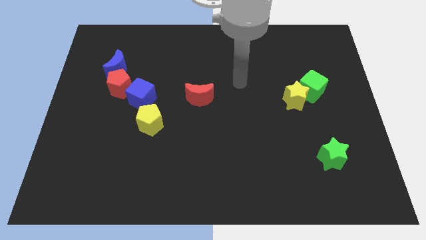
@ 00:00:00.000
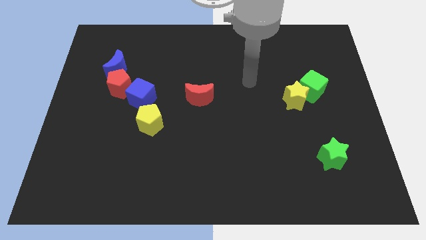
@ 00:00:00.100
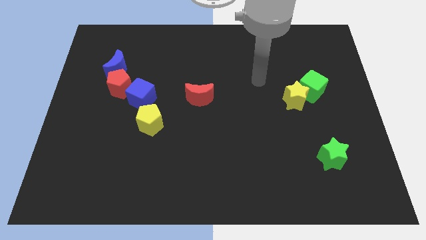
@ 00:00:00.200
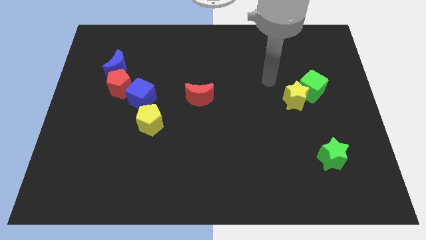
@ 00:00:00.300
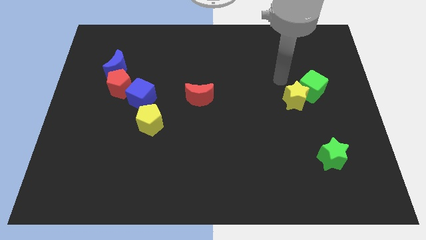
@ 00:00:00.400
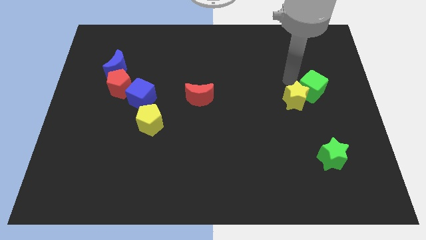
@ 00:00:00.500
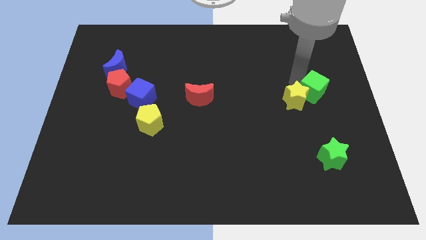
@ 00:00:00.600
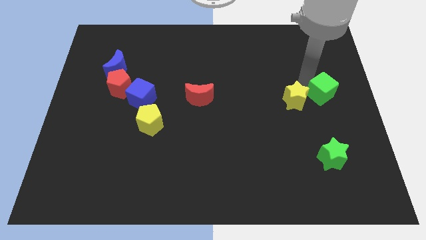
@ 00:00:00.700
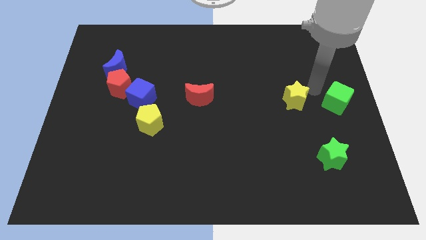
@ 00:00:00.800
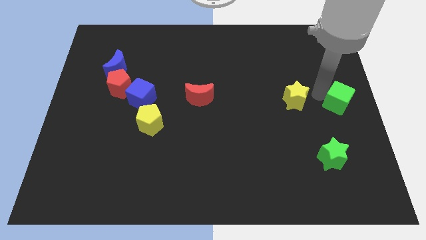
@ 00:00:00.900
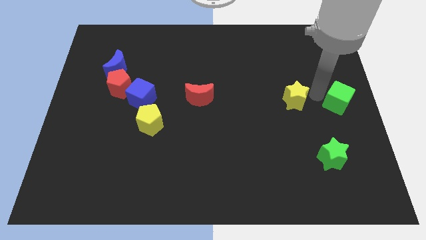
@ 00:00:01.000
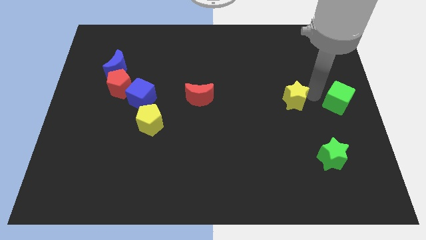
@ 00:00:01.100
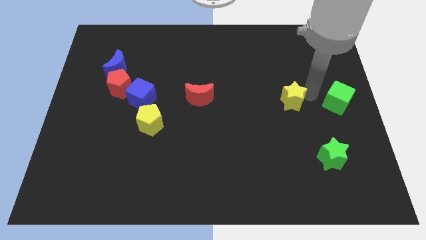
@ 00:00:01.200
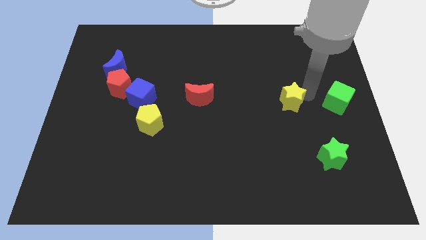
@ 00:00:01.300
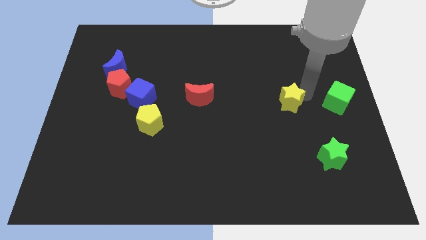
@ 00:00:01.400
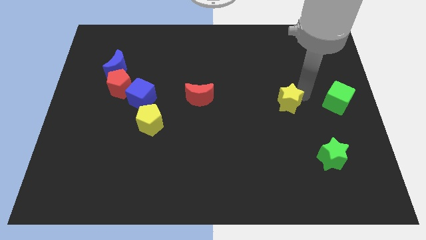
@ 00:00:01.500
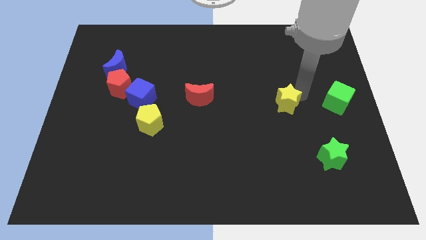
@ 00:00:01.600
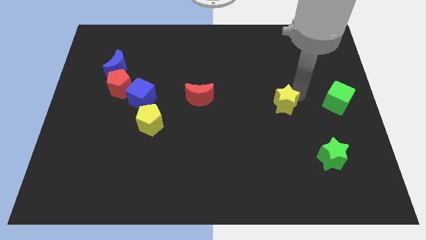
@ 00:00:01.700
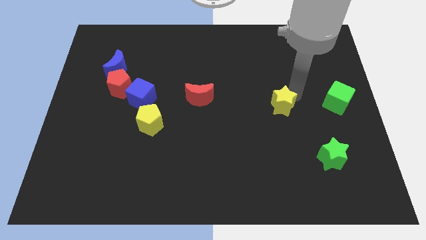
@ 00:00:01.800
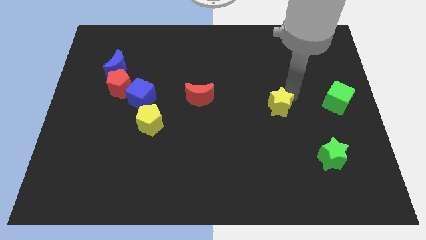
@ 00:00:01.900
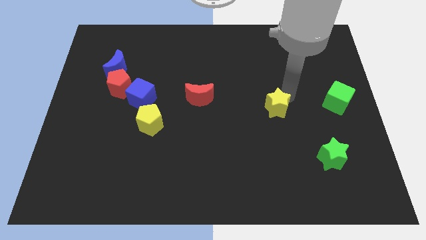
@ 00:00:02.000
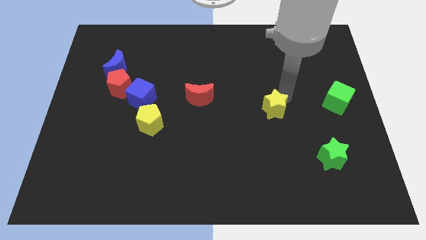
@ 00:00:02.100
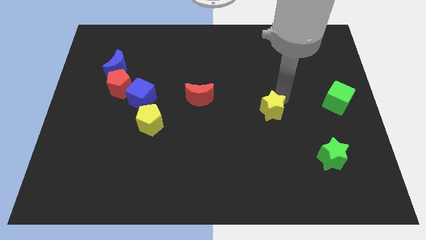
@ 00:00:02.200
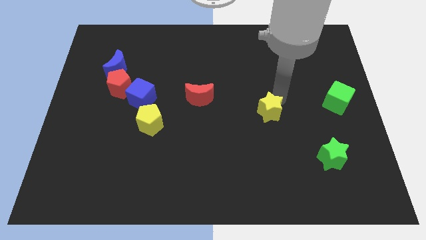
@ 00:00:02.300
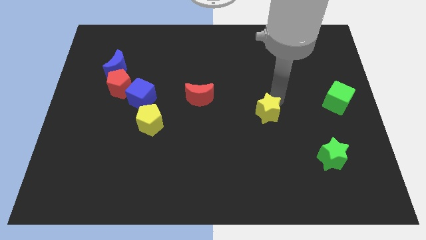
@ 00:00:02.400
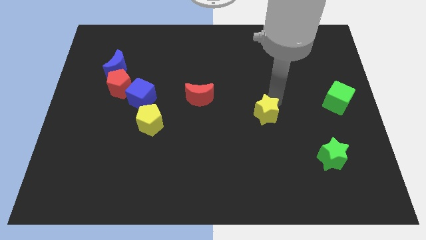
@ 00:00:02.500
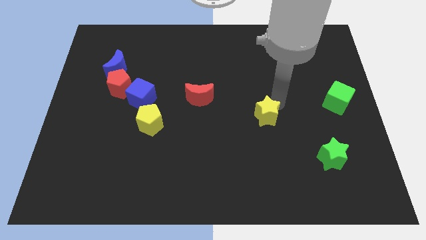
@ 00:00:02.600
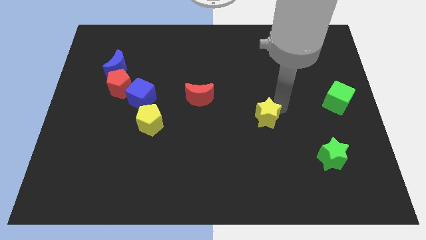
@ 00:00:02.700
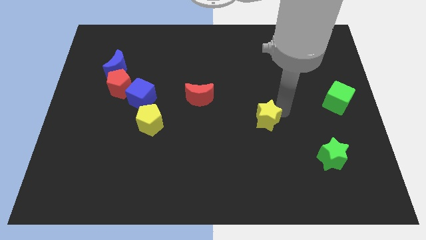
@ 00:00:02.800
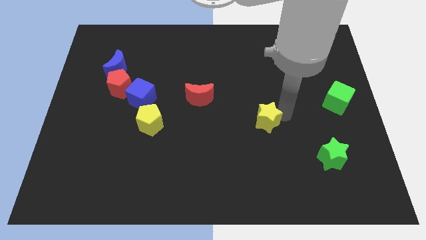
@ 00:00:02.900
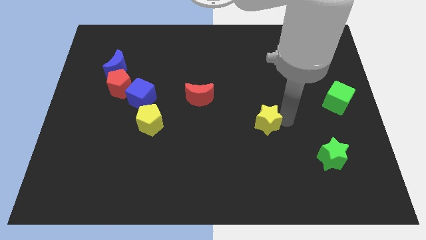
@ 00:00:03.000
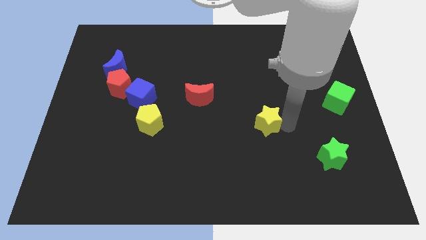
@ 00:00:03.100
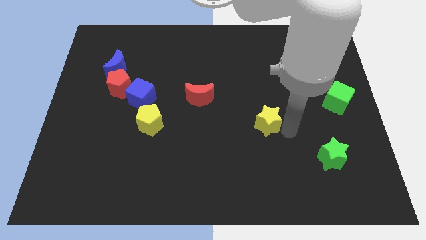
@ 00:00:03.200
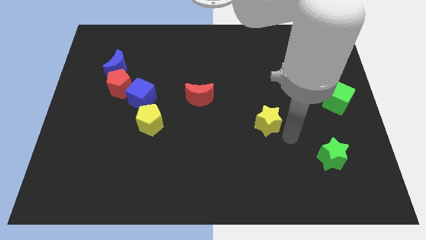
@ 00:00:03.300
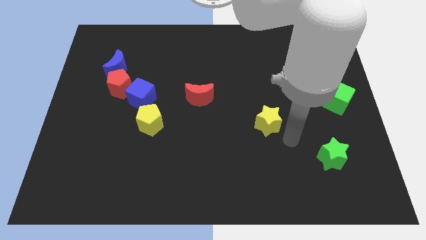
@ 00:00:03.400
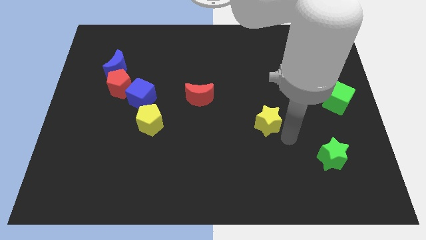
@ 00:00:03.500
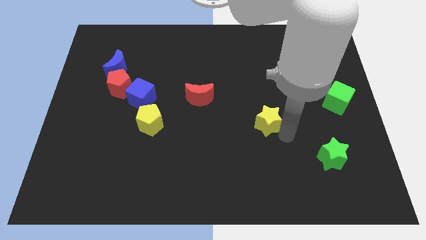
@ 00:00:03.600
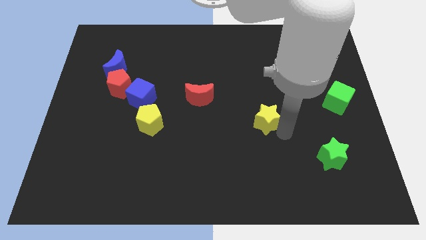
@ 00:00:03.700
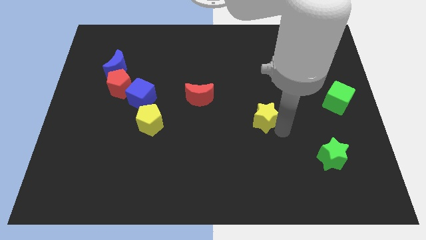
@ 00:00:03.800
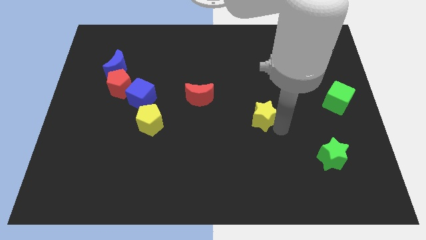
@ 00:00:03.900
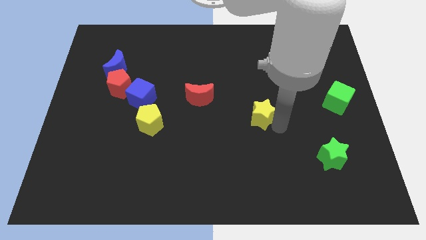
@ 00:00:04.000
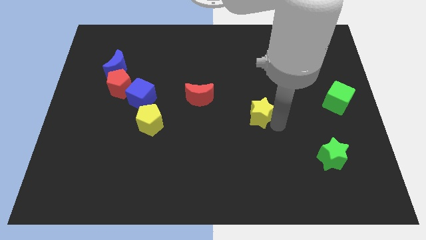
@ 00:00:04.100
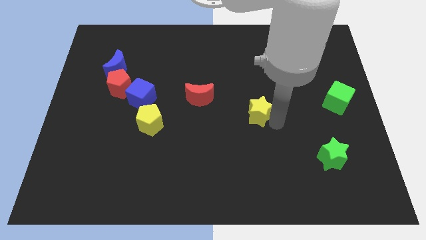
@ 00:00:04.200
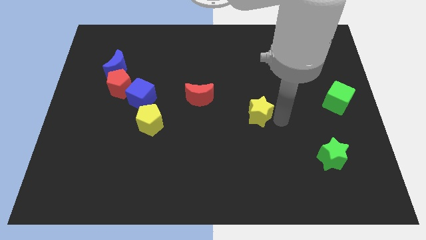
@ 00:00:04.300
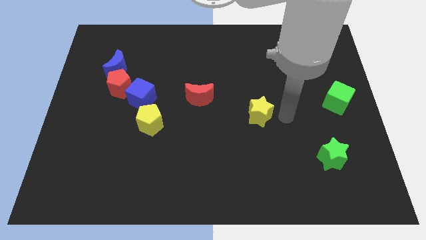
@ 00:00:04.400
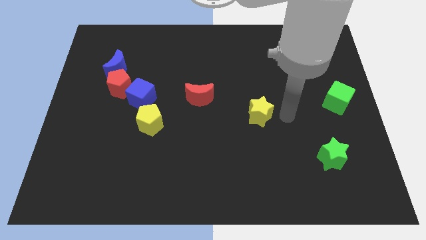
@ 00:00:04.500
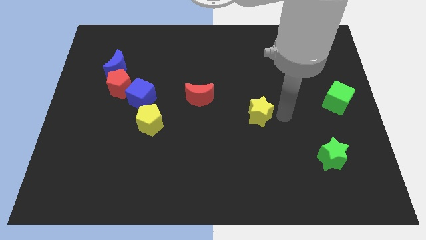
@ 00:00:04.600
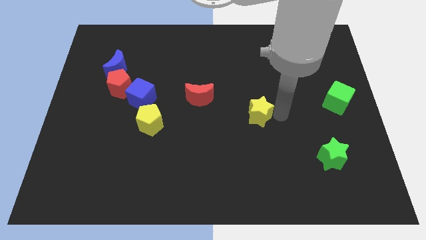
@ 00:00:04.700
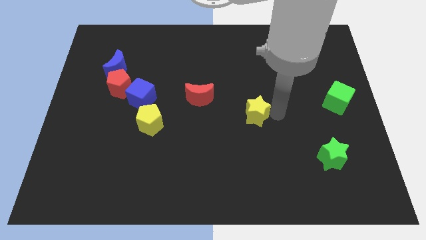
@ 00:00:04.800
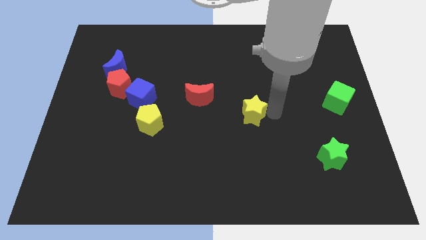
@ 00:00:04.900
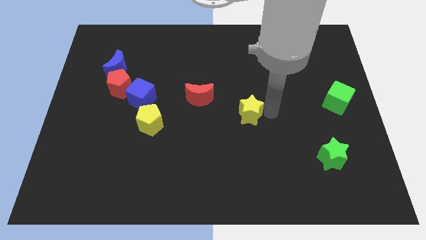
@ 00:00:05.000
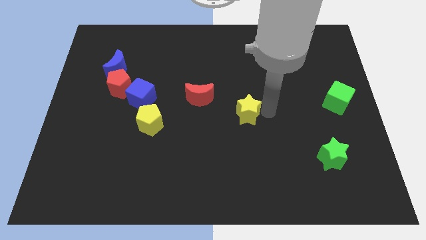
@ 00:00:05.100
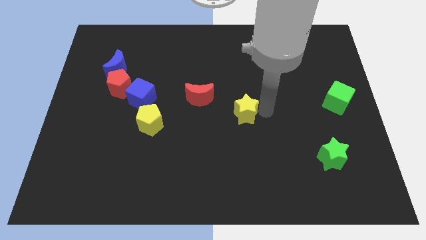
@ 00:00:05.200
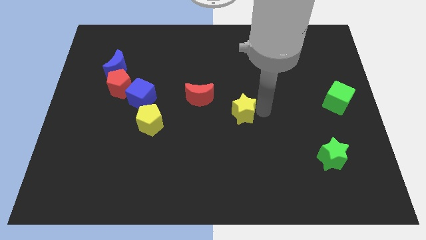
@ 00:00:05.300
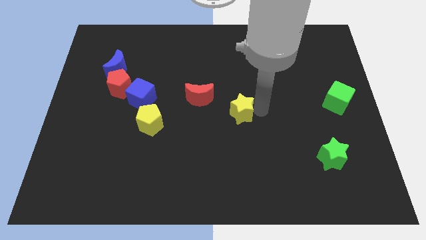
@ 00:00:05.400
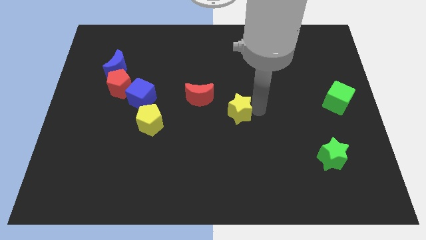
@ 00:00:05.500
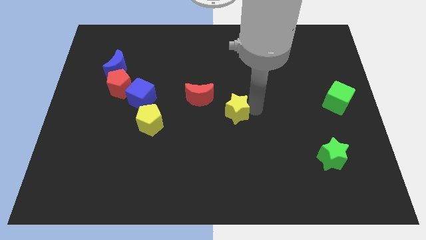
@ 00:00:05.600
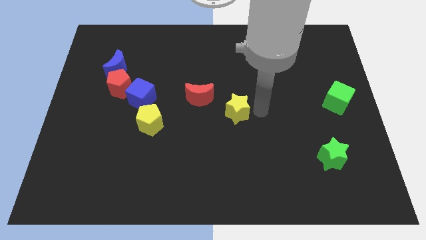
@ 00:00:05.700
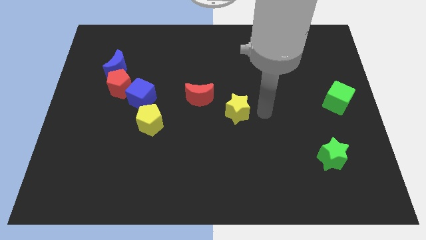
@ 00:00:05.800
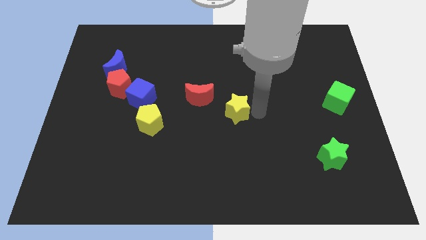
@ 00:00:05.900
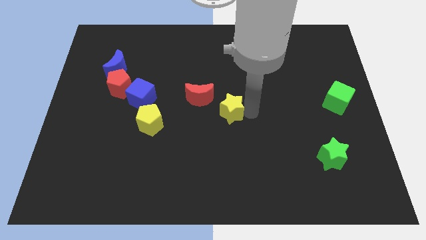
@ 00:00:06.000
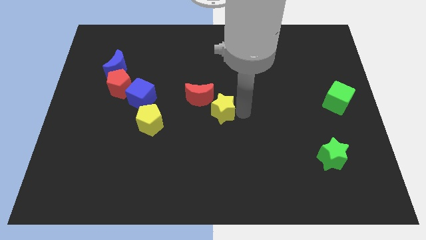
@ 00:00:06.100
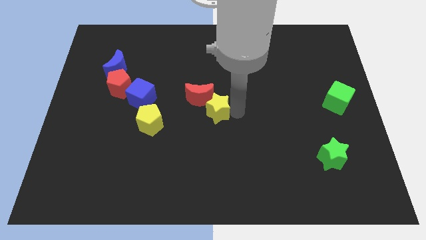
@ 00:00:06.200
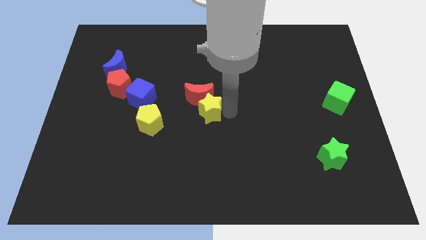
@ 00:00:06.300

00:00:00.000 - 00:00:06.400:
move the yellow star left

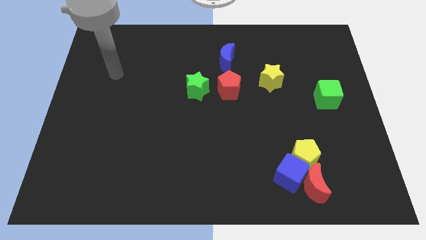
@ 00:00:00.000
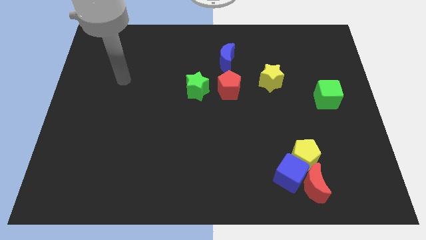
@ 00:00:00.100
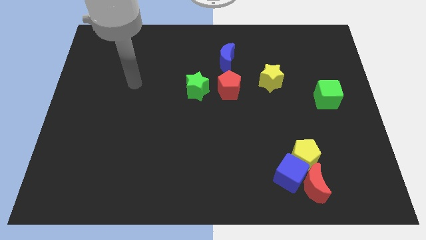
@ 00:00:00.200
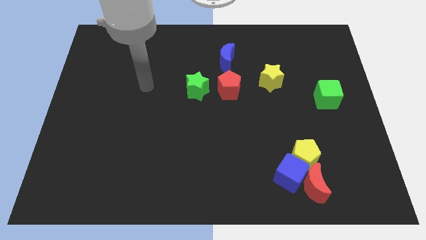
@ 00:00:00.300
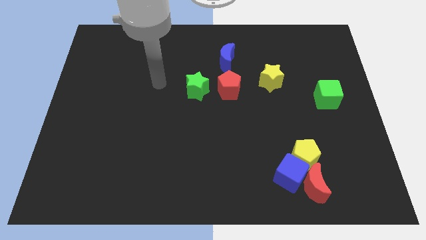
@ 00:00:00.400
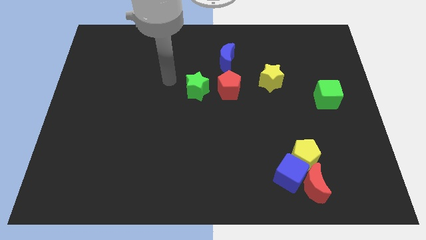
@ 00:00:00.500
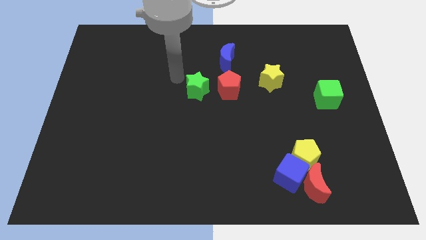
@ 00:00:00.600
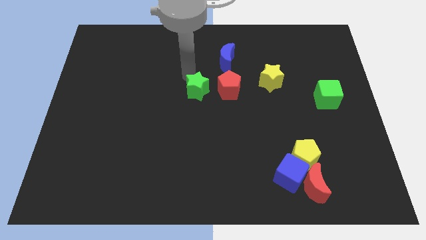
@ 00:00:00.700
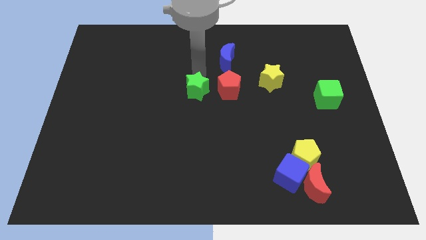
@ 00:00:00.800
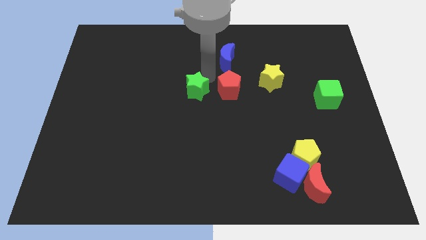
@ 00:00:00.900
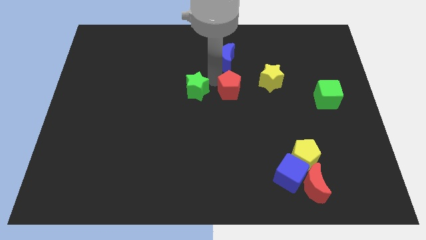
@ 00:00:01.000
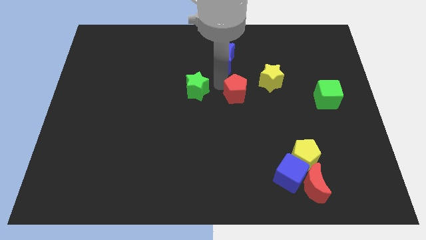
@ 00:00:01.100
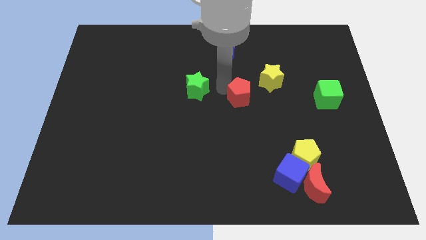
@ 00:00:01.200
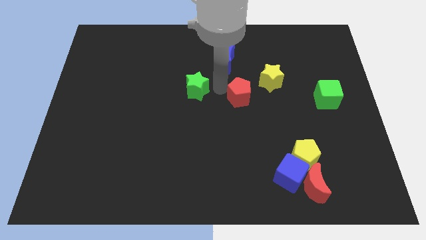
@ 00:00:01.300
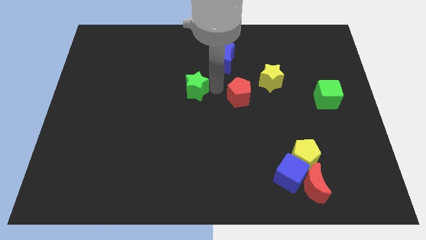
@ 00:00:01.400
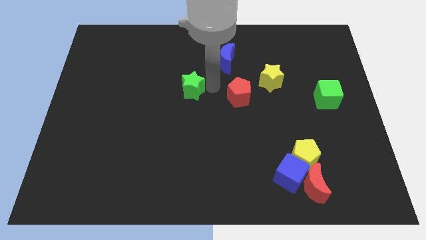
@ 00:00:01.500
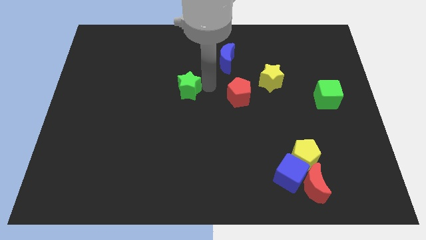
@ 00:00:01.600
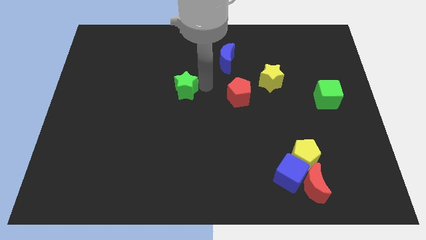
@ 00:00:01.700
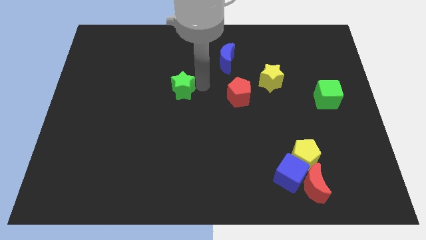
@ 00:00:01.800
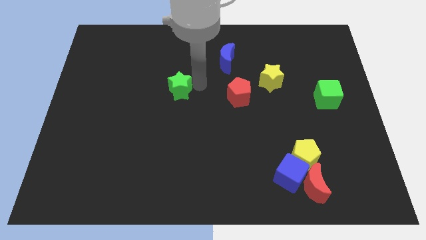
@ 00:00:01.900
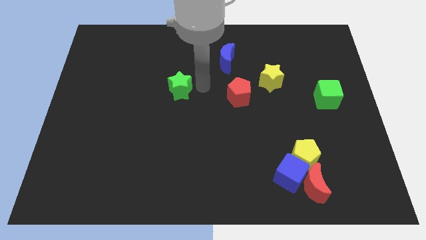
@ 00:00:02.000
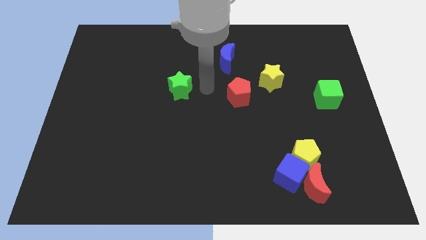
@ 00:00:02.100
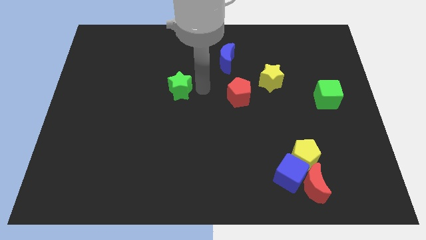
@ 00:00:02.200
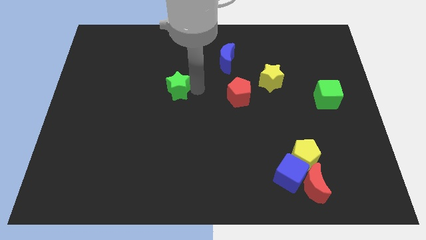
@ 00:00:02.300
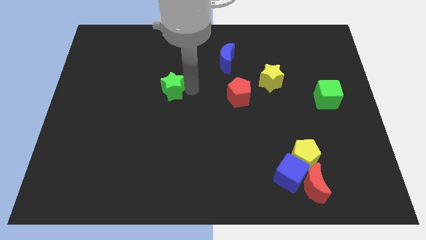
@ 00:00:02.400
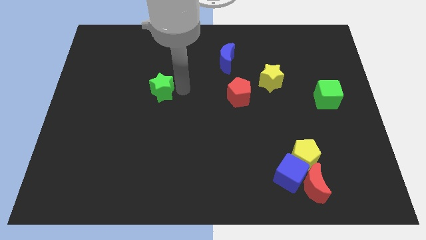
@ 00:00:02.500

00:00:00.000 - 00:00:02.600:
slightly move the green star to the left
